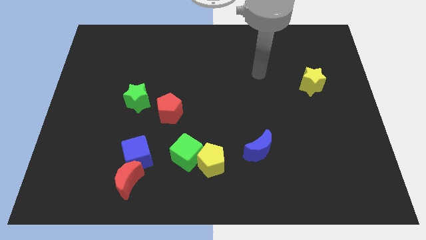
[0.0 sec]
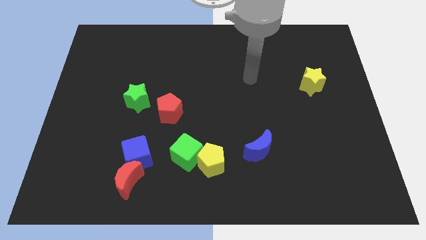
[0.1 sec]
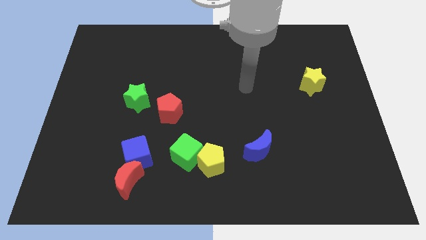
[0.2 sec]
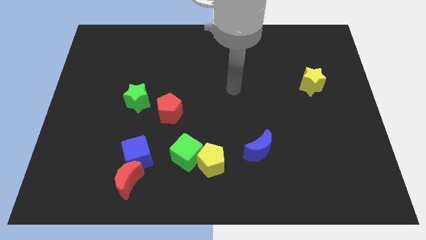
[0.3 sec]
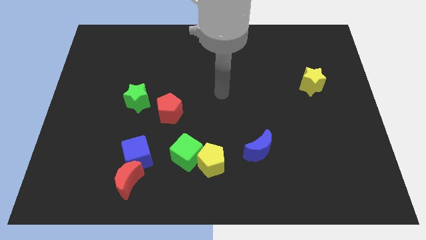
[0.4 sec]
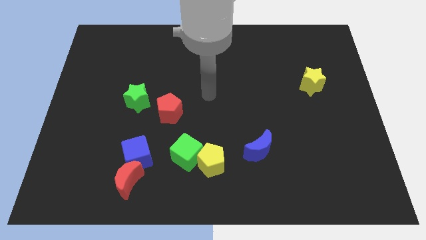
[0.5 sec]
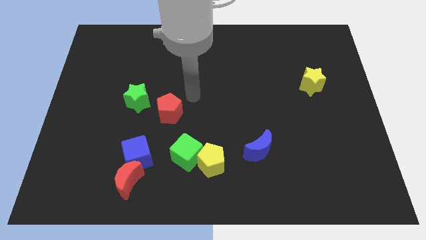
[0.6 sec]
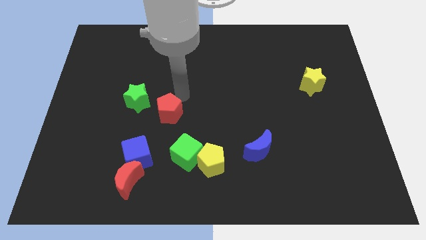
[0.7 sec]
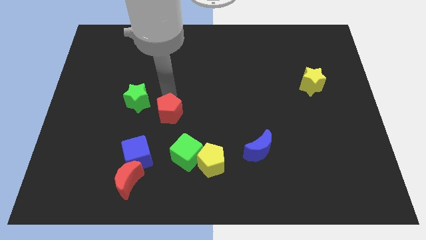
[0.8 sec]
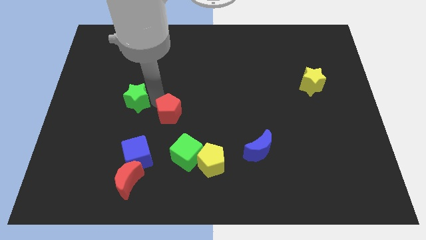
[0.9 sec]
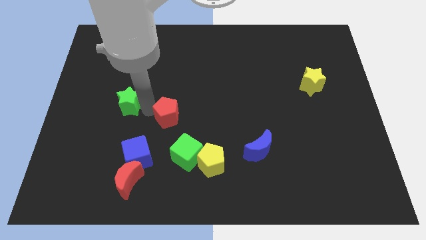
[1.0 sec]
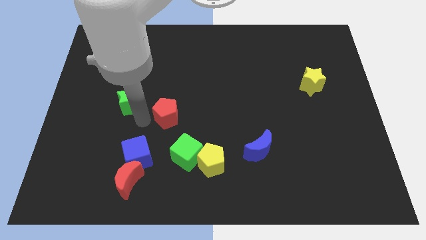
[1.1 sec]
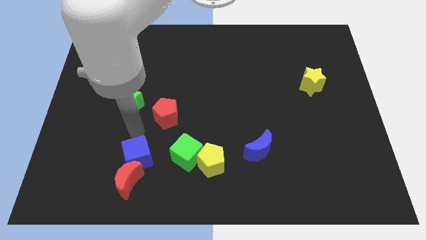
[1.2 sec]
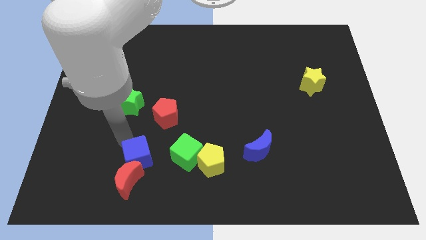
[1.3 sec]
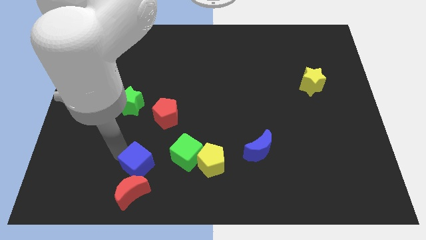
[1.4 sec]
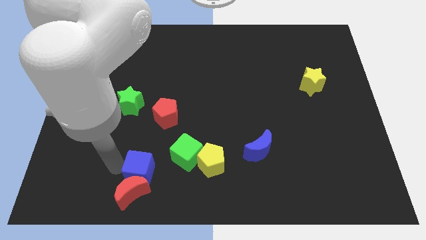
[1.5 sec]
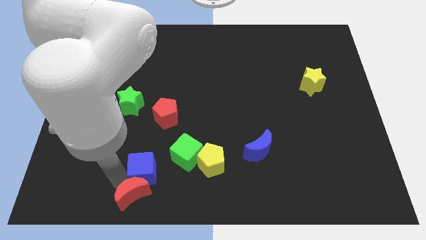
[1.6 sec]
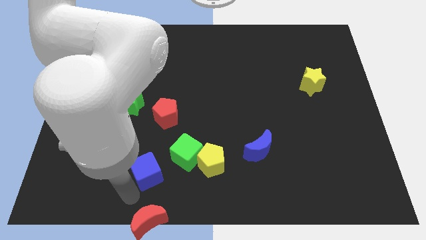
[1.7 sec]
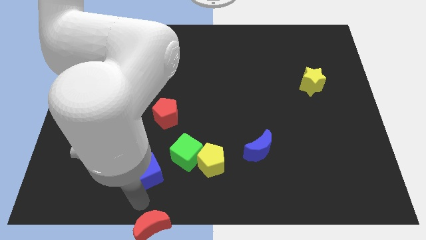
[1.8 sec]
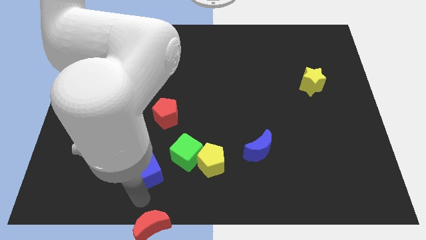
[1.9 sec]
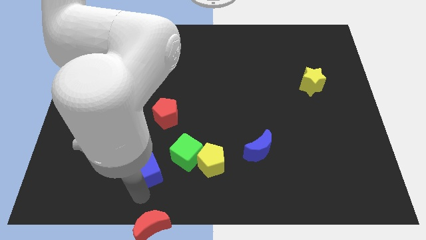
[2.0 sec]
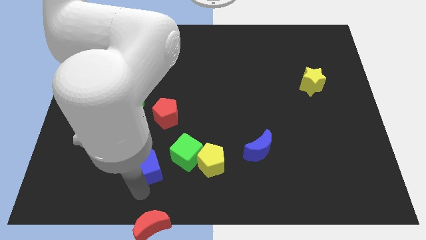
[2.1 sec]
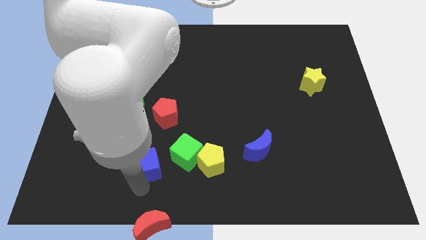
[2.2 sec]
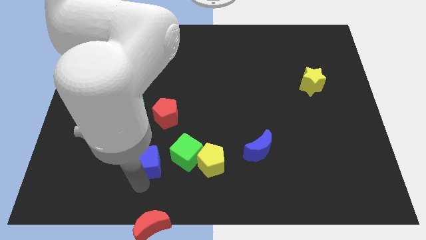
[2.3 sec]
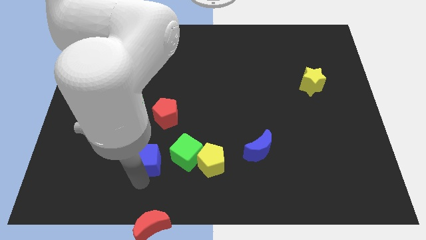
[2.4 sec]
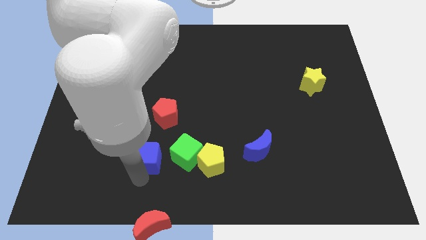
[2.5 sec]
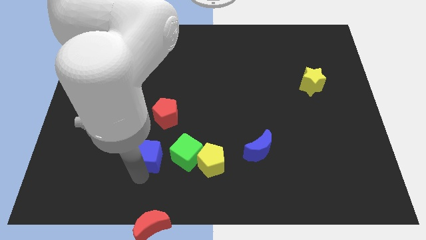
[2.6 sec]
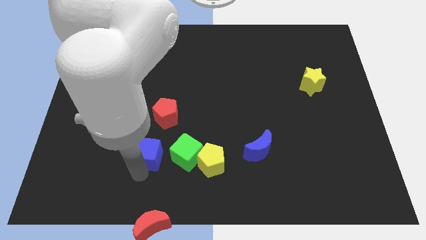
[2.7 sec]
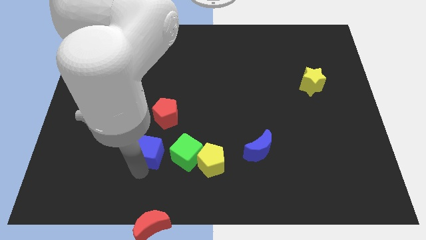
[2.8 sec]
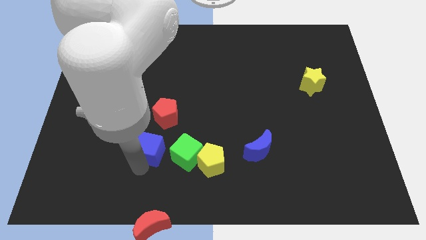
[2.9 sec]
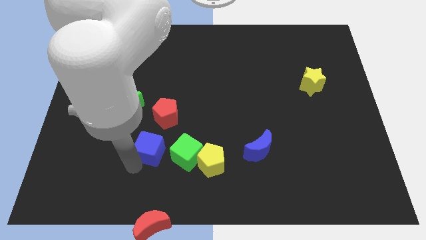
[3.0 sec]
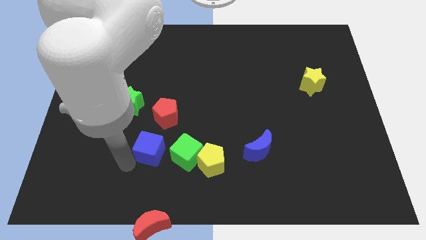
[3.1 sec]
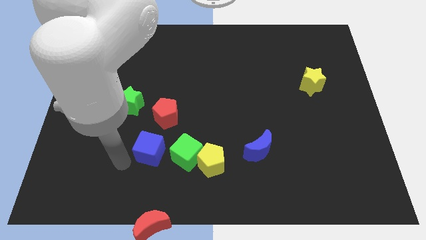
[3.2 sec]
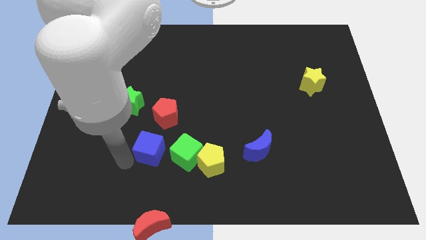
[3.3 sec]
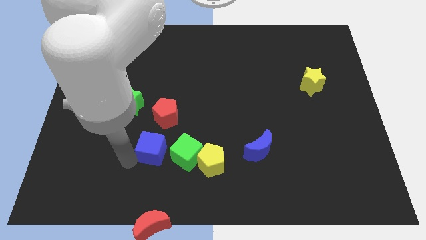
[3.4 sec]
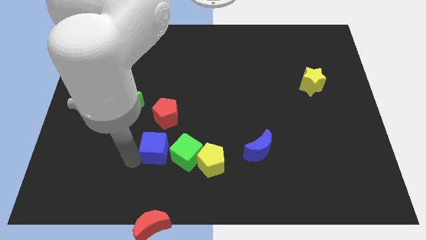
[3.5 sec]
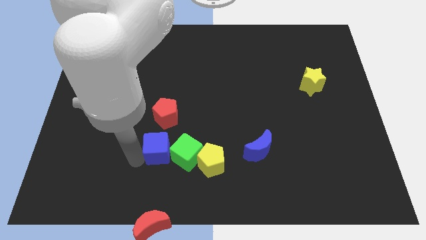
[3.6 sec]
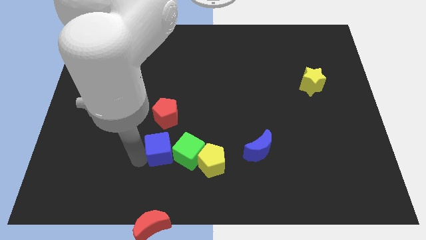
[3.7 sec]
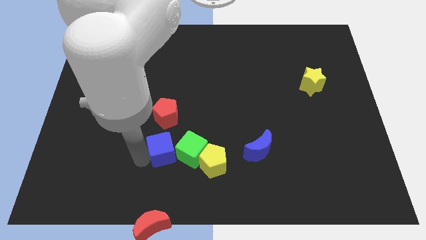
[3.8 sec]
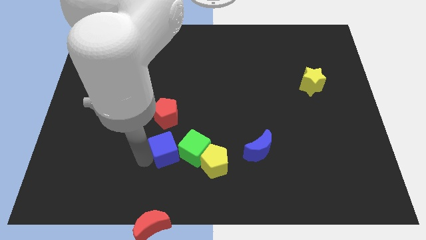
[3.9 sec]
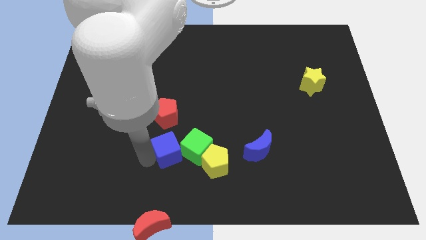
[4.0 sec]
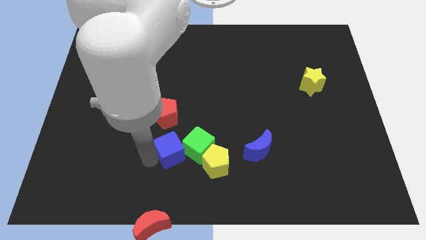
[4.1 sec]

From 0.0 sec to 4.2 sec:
slightly slide the blue cube right

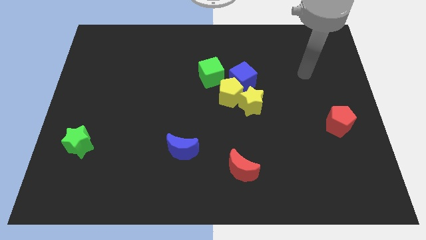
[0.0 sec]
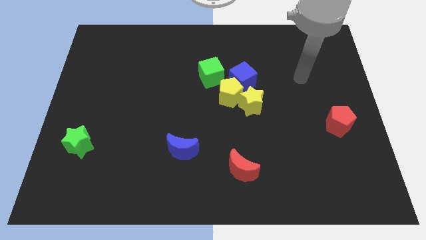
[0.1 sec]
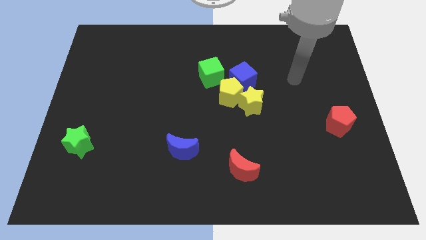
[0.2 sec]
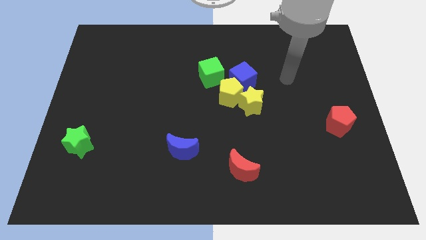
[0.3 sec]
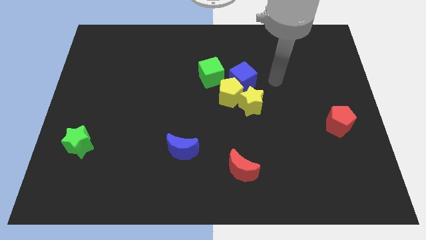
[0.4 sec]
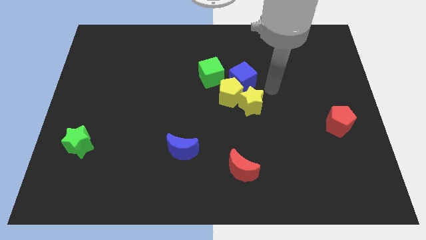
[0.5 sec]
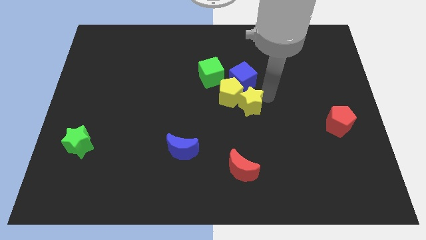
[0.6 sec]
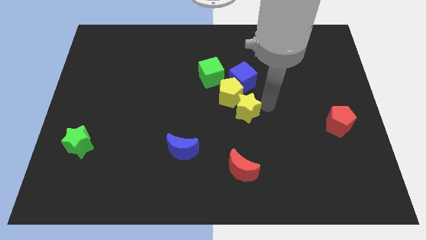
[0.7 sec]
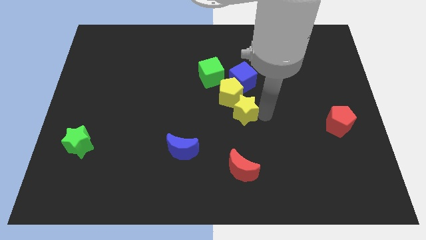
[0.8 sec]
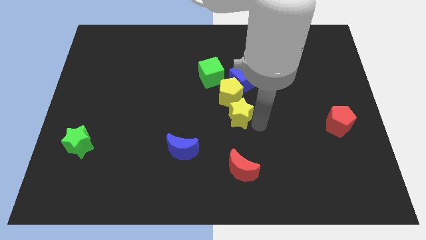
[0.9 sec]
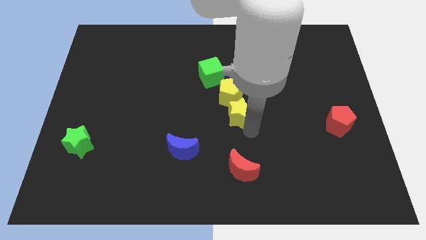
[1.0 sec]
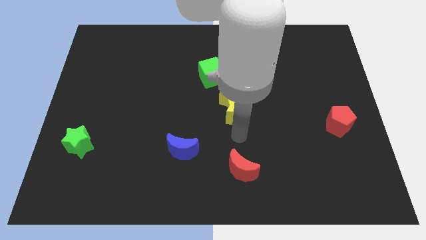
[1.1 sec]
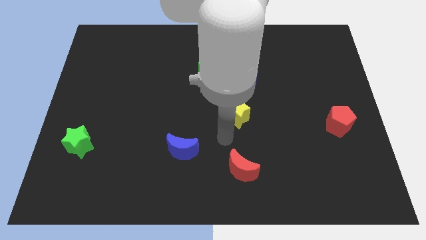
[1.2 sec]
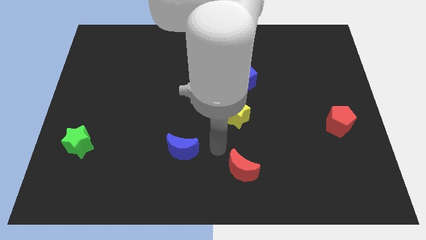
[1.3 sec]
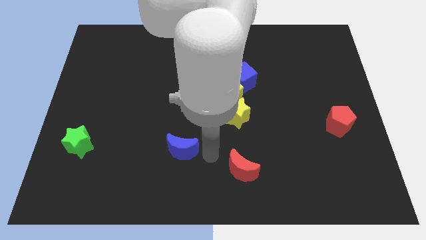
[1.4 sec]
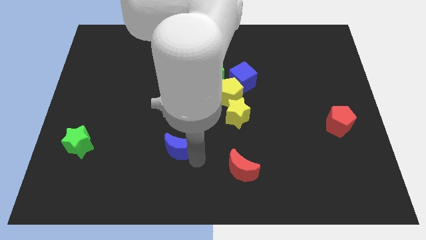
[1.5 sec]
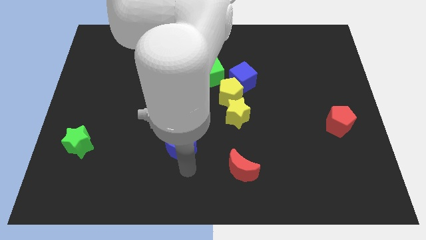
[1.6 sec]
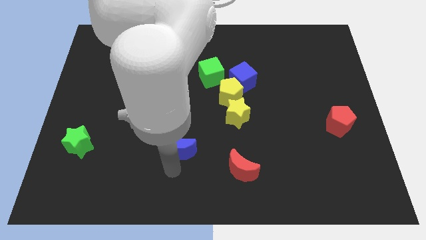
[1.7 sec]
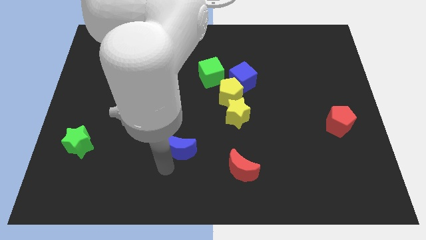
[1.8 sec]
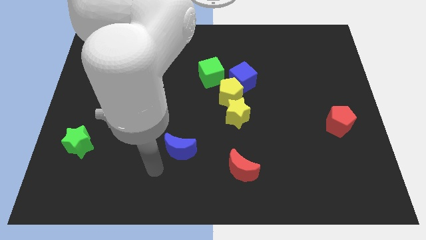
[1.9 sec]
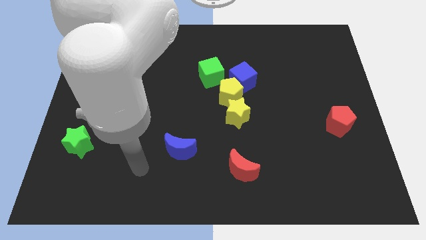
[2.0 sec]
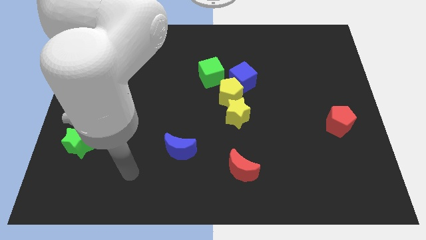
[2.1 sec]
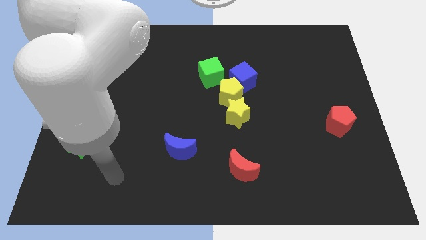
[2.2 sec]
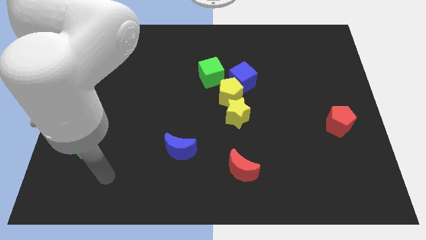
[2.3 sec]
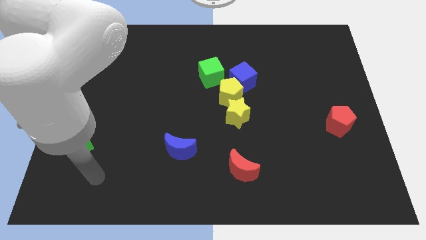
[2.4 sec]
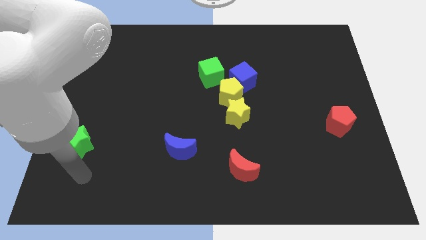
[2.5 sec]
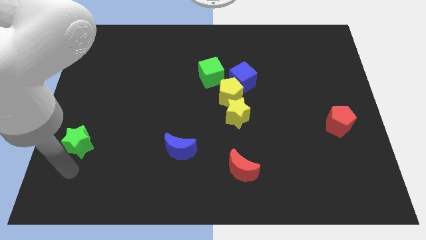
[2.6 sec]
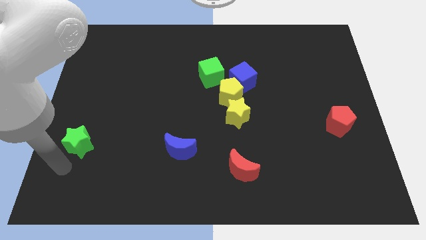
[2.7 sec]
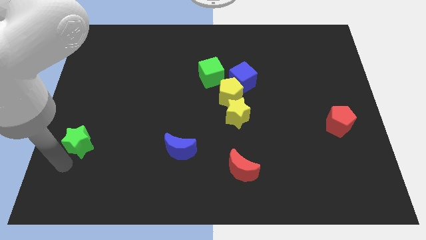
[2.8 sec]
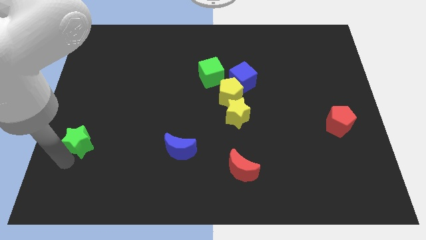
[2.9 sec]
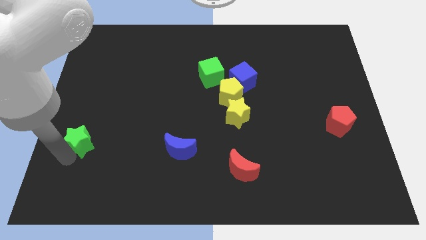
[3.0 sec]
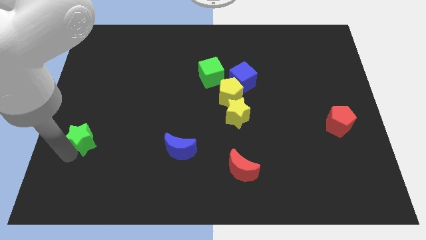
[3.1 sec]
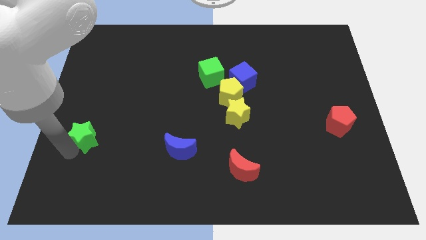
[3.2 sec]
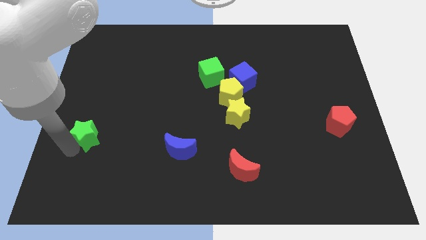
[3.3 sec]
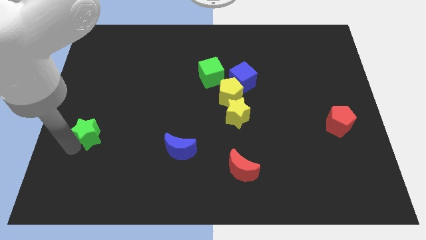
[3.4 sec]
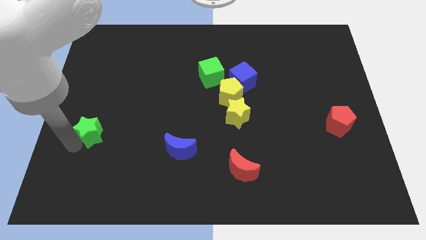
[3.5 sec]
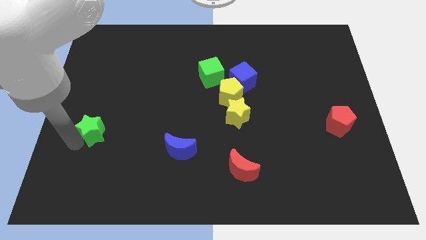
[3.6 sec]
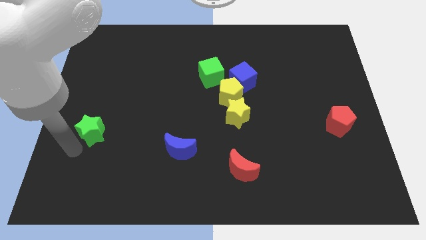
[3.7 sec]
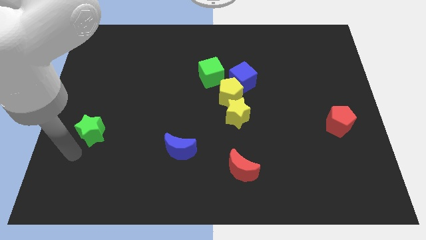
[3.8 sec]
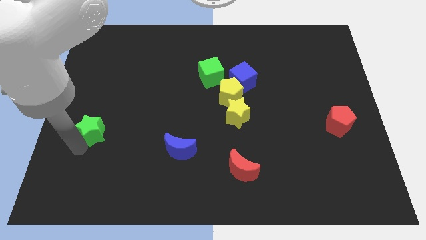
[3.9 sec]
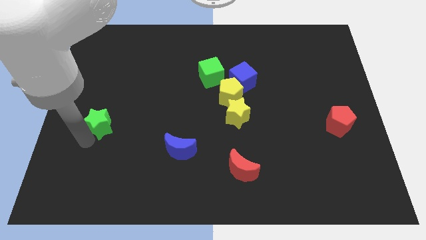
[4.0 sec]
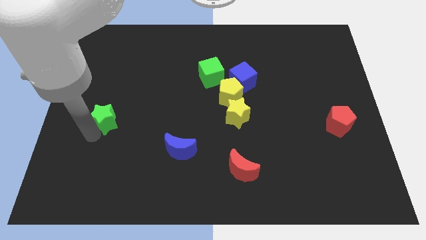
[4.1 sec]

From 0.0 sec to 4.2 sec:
slightly push the green star diagonally upwards and right

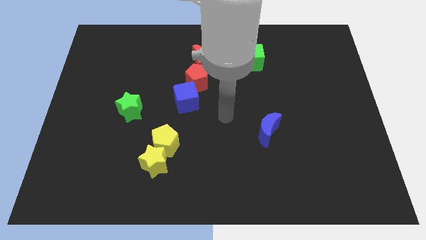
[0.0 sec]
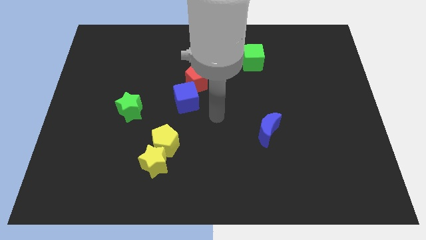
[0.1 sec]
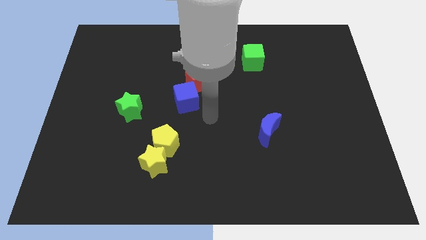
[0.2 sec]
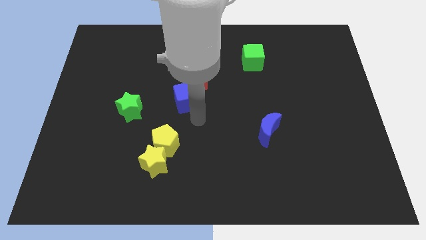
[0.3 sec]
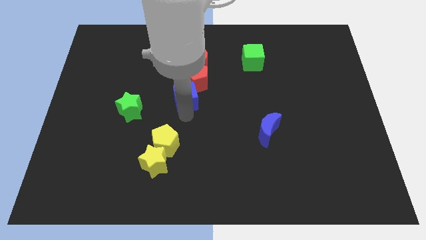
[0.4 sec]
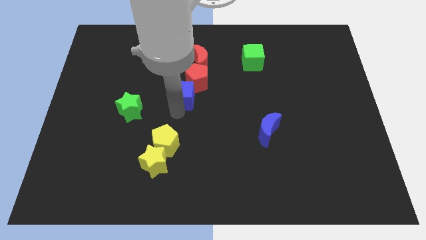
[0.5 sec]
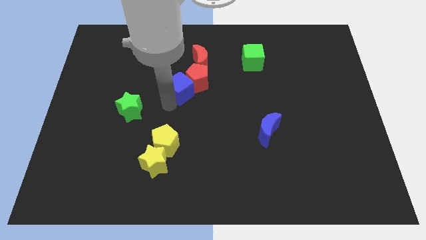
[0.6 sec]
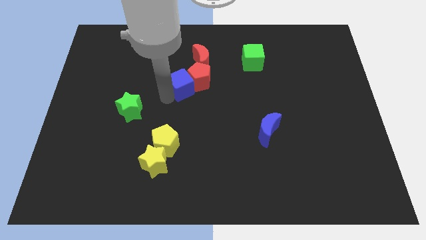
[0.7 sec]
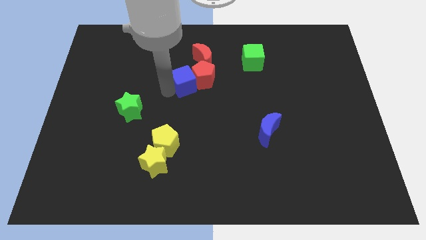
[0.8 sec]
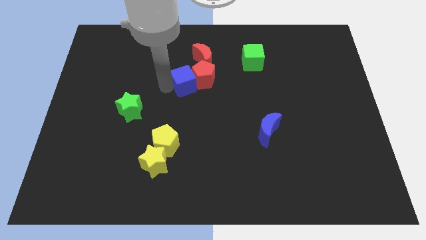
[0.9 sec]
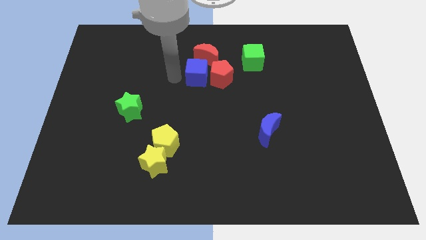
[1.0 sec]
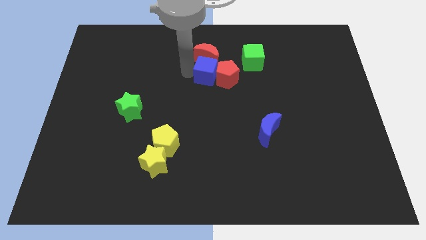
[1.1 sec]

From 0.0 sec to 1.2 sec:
move the red pentagon a little bit to the right
